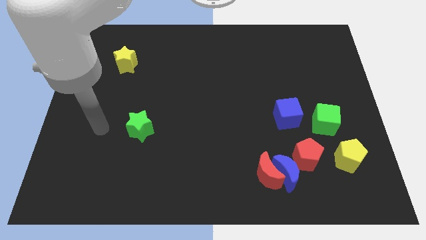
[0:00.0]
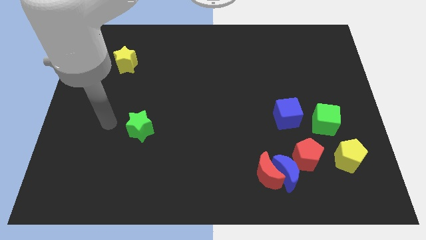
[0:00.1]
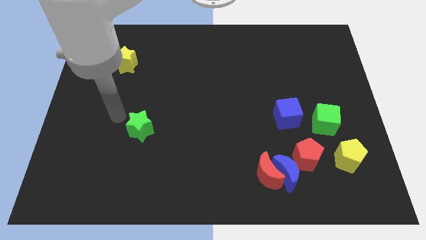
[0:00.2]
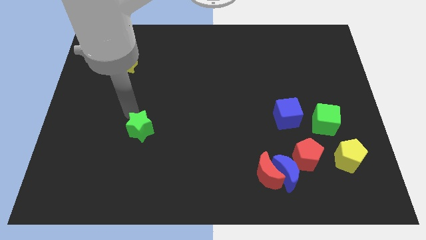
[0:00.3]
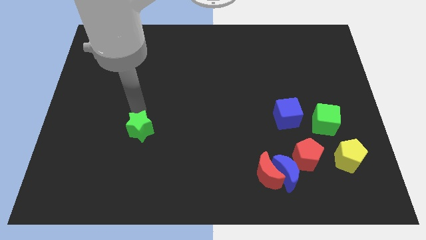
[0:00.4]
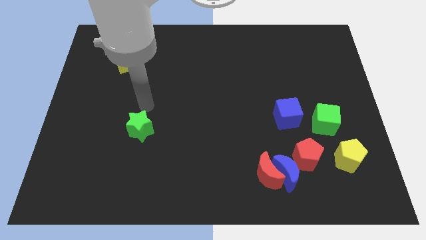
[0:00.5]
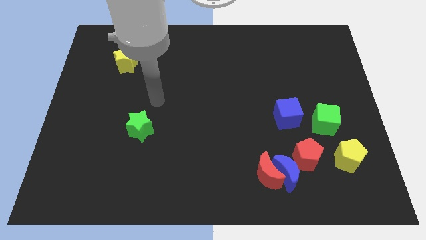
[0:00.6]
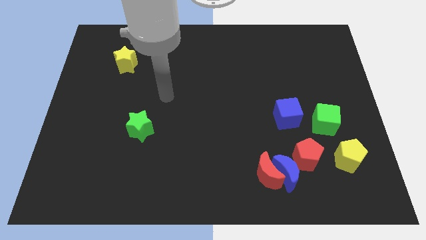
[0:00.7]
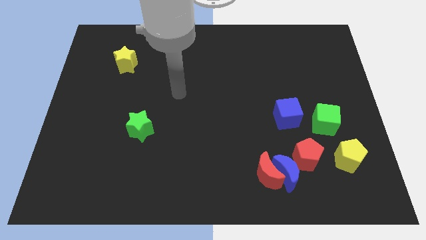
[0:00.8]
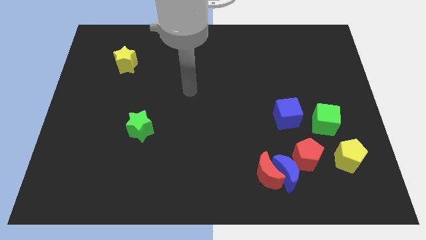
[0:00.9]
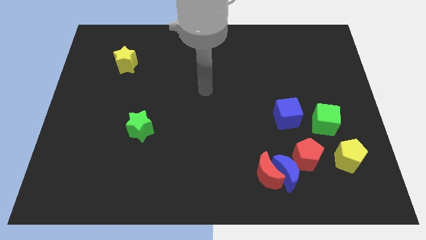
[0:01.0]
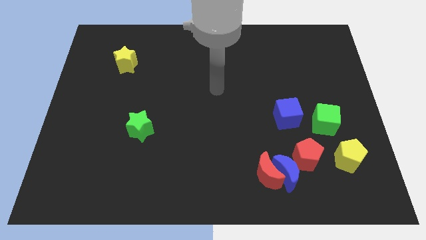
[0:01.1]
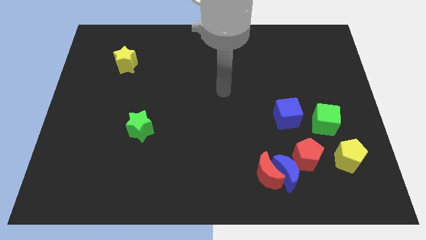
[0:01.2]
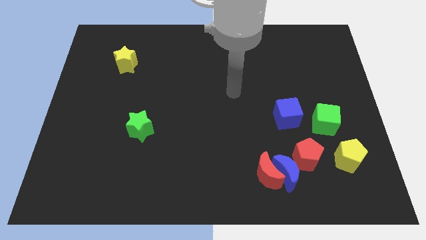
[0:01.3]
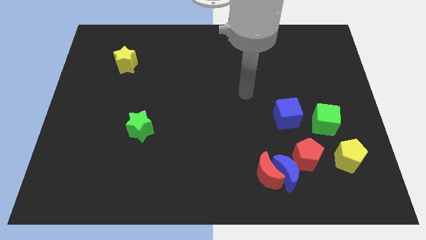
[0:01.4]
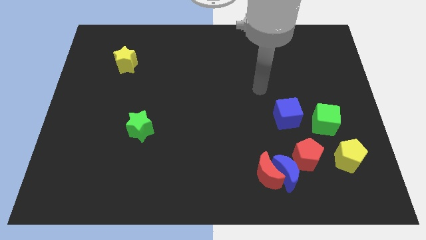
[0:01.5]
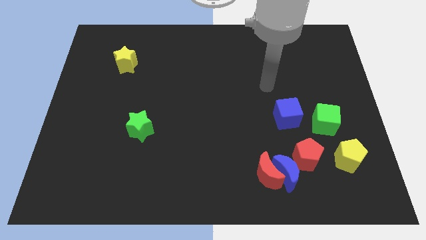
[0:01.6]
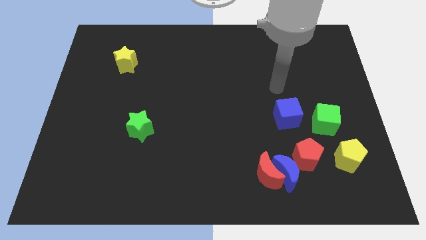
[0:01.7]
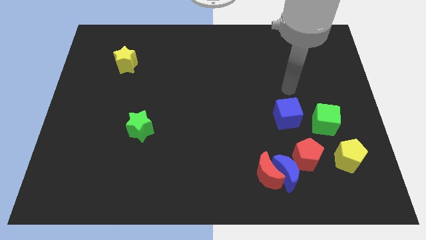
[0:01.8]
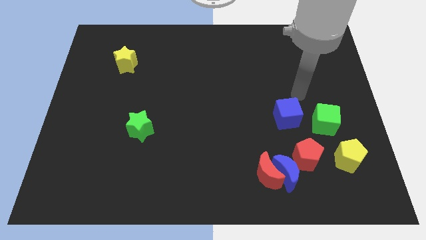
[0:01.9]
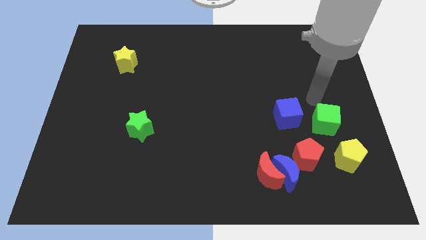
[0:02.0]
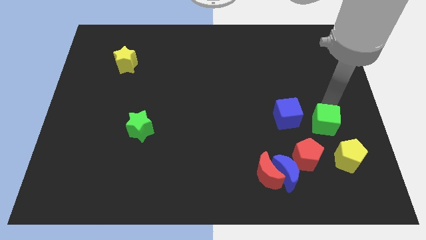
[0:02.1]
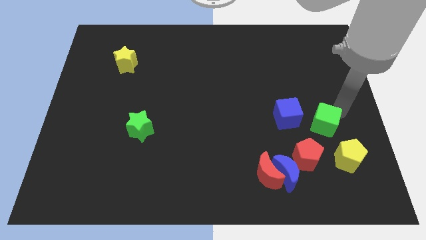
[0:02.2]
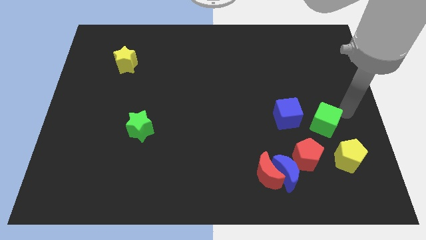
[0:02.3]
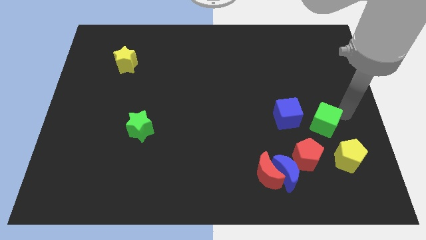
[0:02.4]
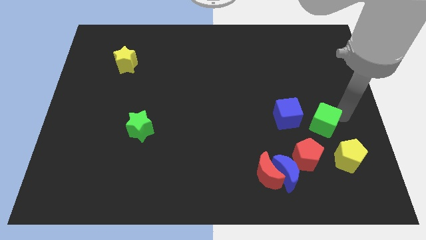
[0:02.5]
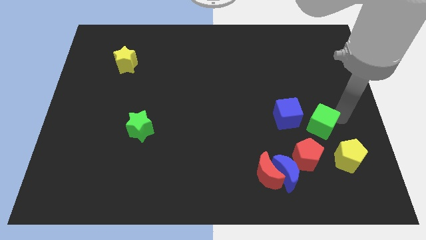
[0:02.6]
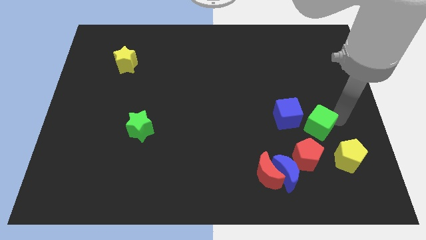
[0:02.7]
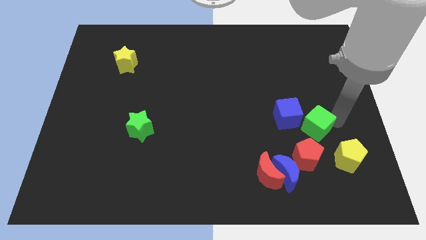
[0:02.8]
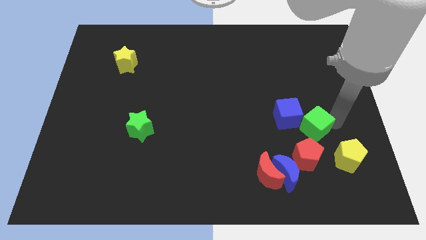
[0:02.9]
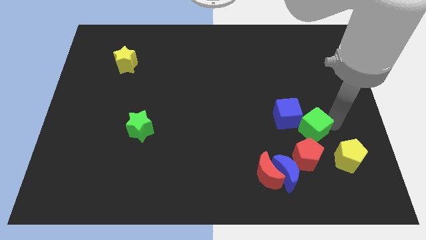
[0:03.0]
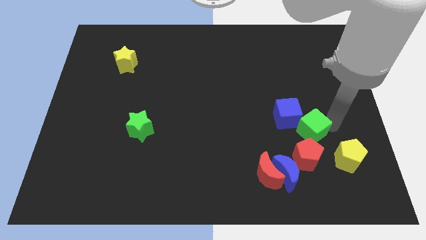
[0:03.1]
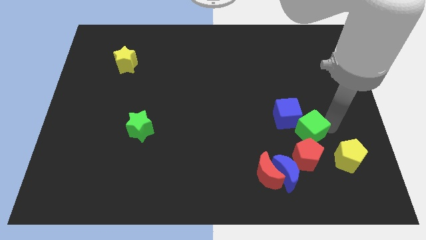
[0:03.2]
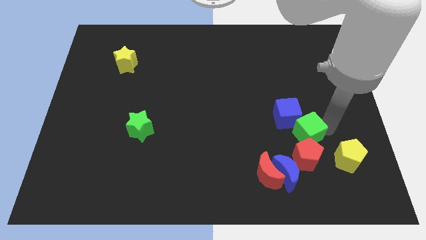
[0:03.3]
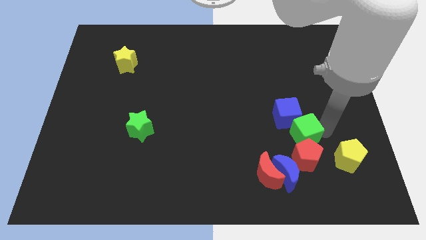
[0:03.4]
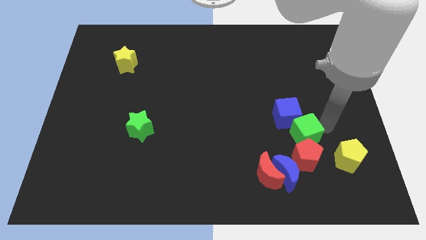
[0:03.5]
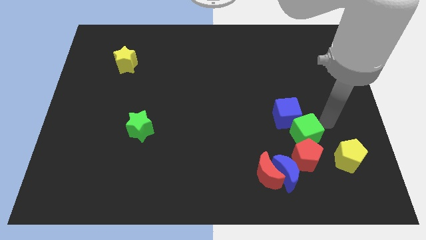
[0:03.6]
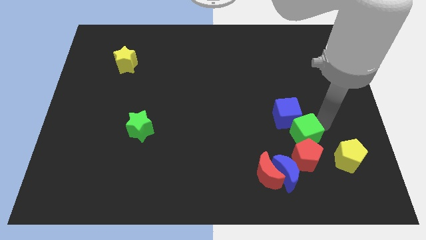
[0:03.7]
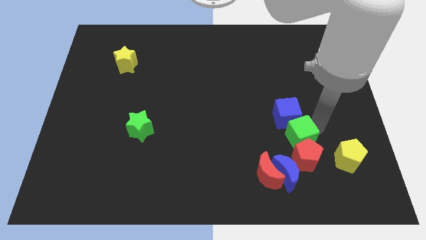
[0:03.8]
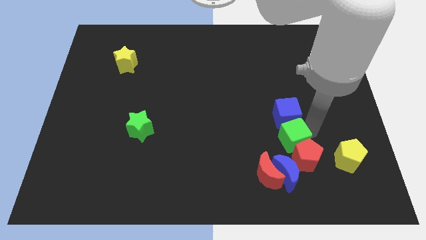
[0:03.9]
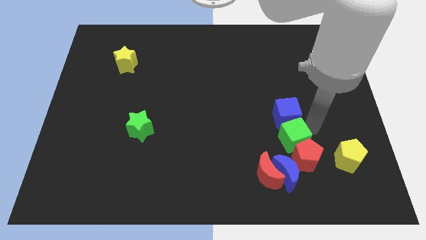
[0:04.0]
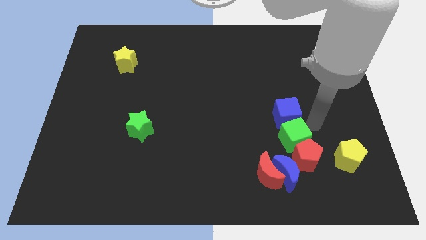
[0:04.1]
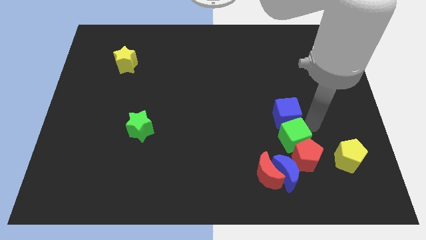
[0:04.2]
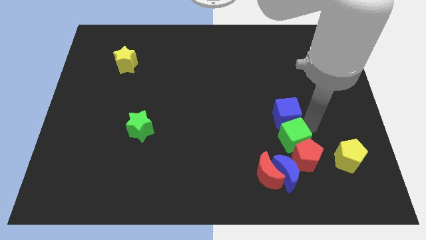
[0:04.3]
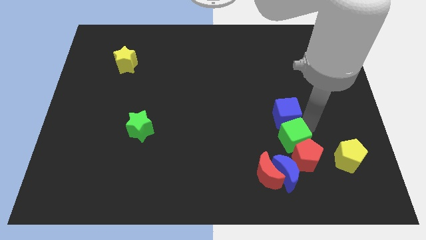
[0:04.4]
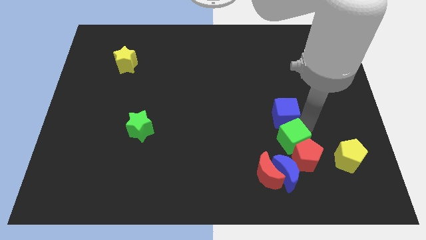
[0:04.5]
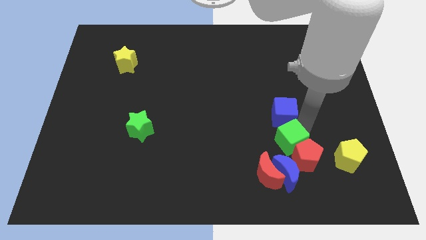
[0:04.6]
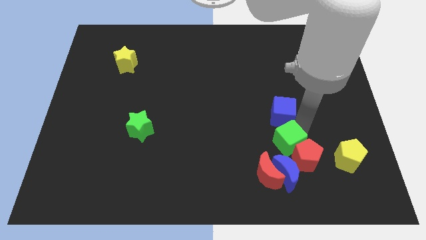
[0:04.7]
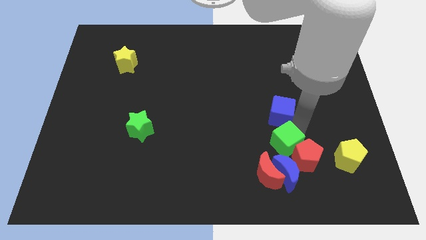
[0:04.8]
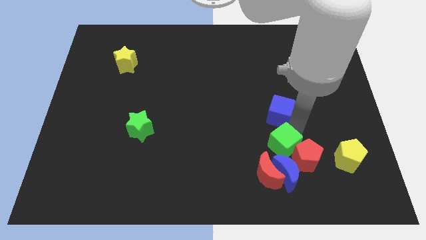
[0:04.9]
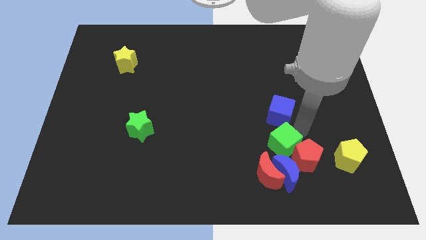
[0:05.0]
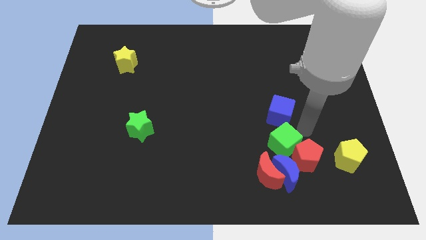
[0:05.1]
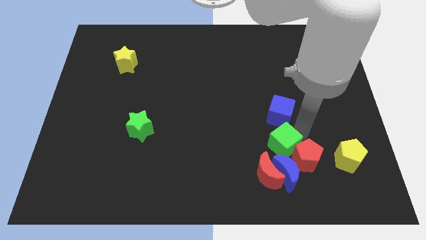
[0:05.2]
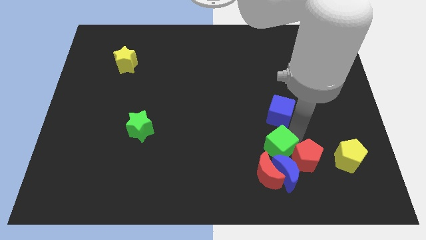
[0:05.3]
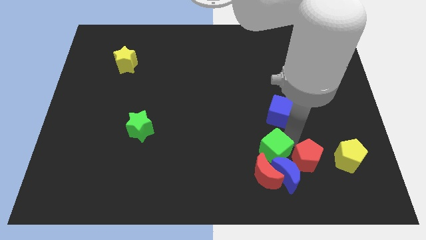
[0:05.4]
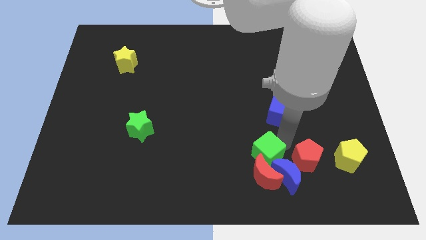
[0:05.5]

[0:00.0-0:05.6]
put the green cube to the red moon

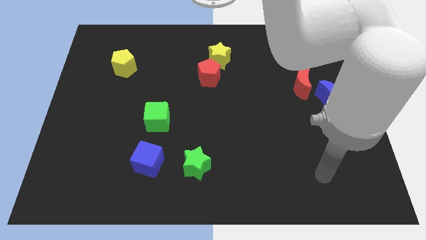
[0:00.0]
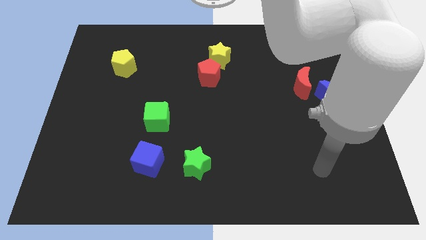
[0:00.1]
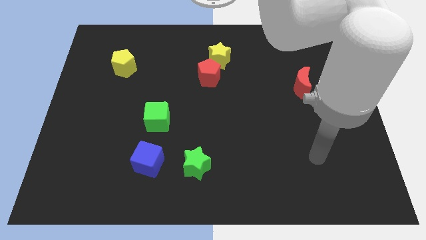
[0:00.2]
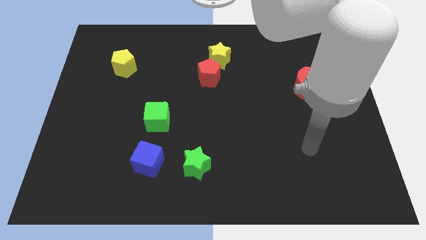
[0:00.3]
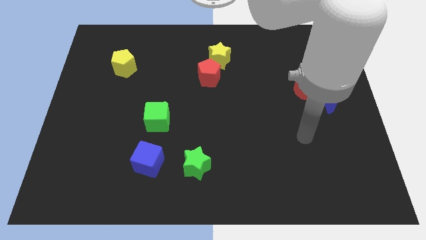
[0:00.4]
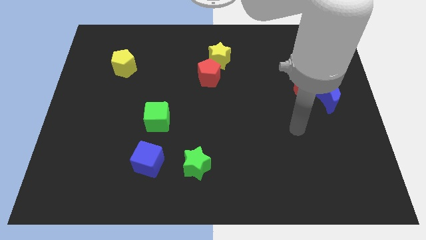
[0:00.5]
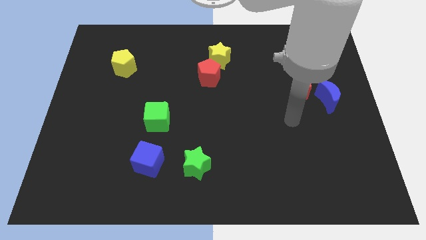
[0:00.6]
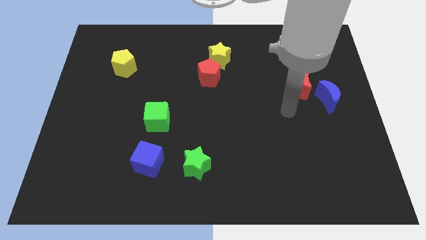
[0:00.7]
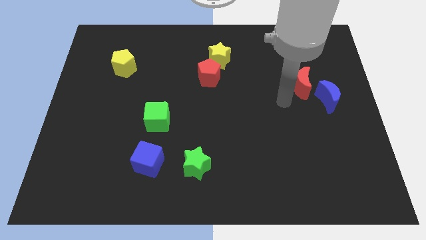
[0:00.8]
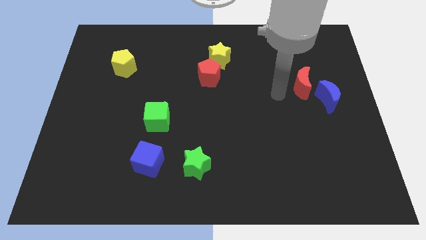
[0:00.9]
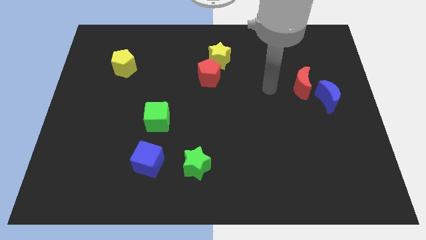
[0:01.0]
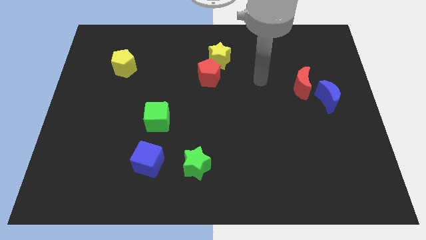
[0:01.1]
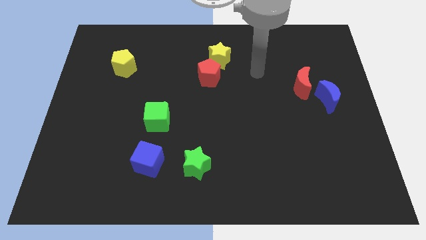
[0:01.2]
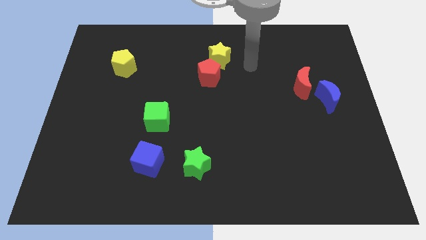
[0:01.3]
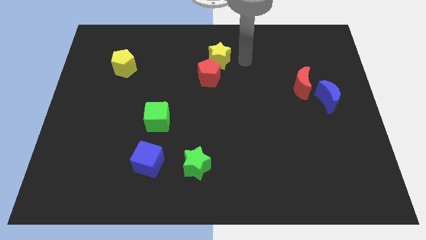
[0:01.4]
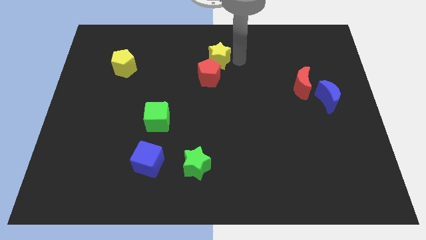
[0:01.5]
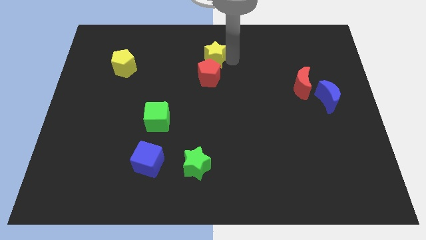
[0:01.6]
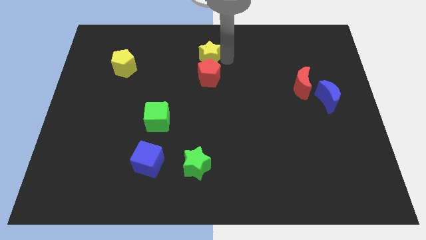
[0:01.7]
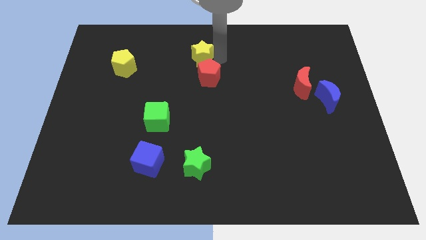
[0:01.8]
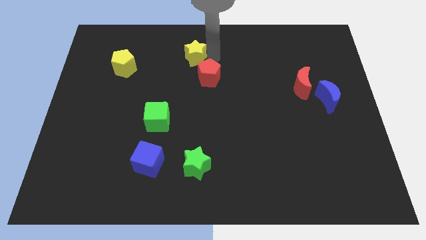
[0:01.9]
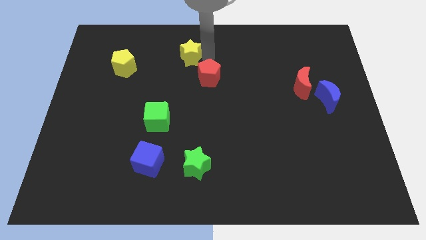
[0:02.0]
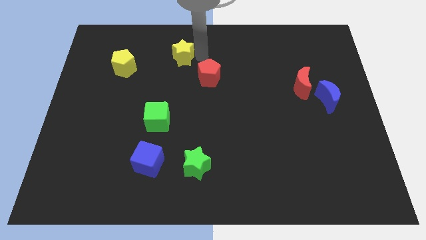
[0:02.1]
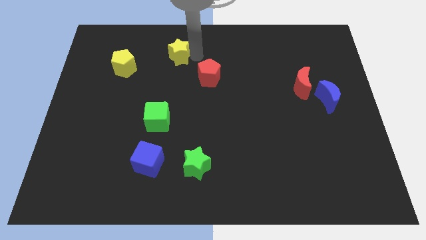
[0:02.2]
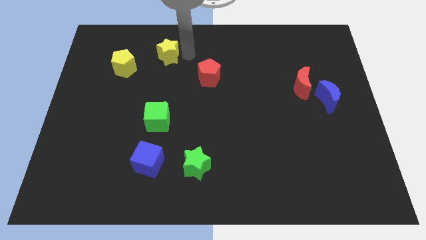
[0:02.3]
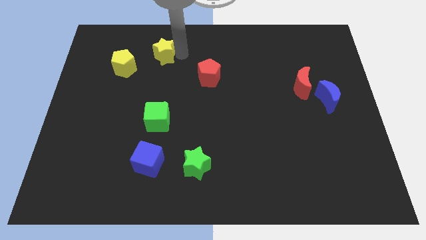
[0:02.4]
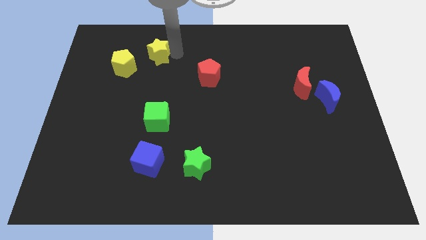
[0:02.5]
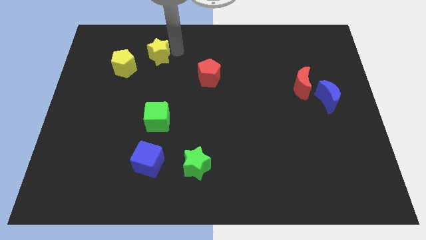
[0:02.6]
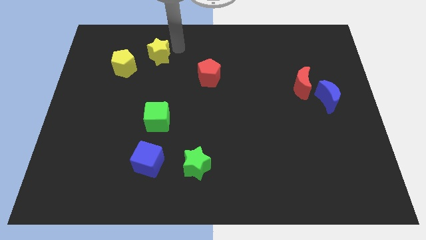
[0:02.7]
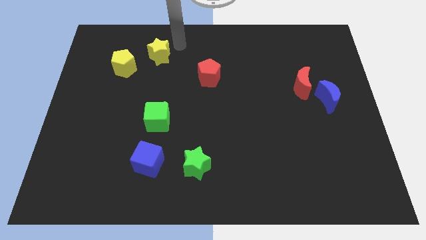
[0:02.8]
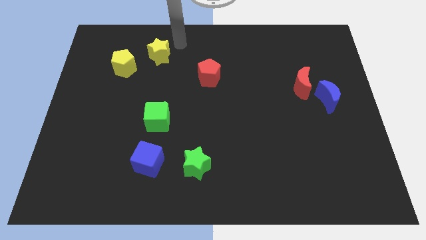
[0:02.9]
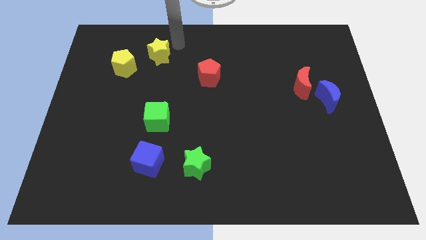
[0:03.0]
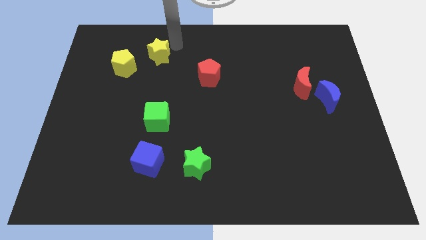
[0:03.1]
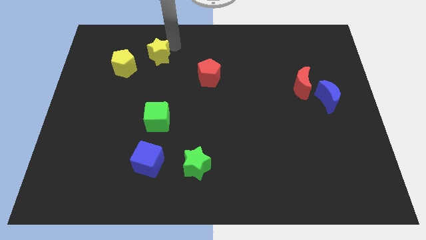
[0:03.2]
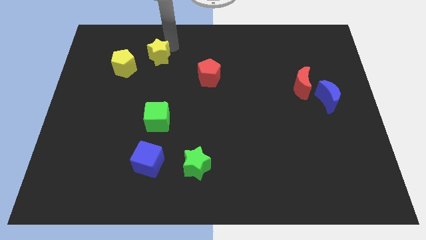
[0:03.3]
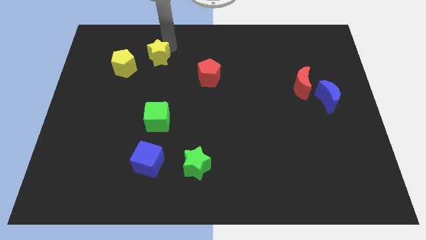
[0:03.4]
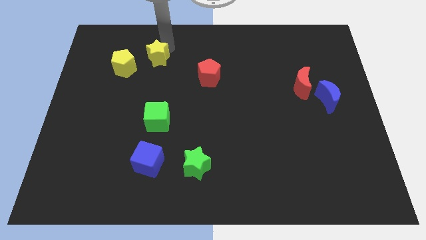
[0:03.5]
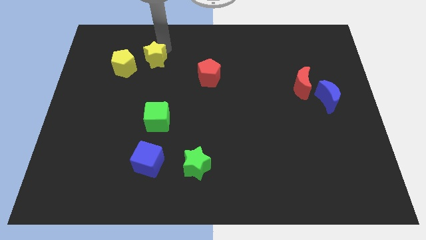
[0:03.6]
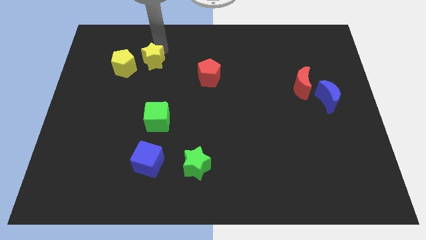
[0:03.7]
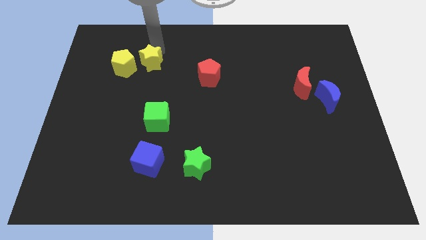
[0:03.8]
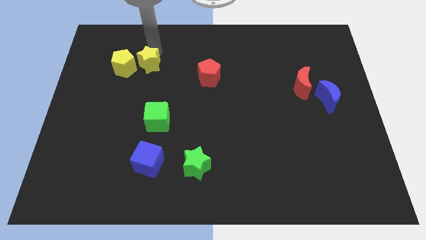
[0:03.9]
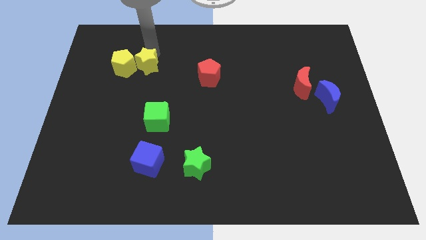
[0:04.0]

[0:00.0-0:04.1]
slide the yellow star towards the yellow pentagon
